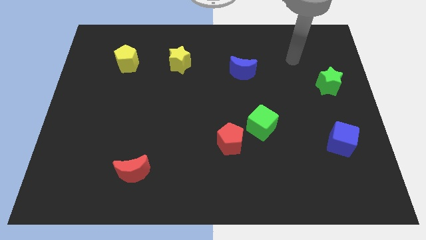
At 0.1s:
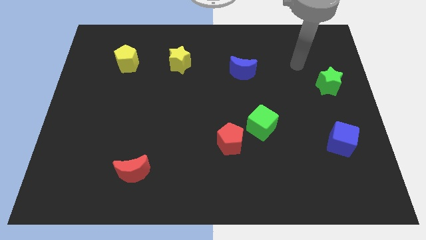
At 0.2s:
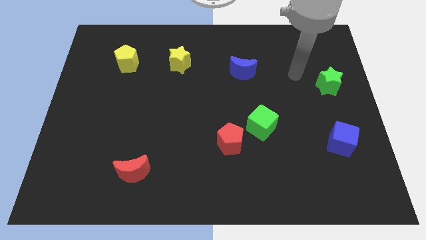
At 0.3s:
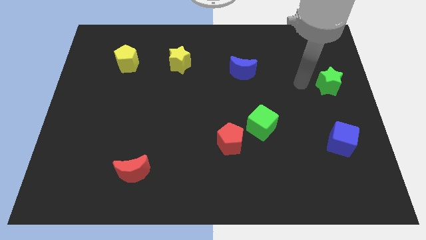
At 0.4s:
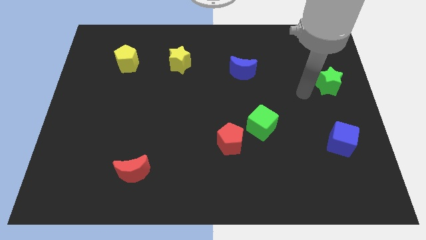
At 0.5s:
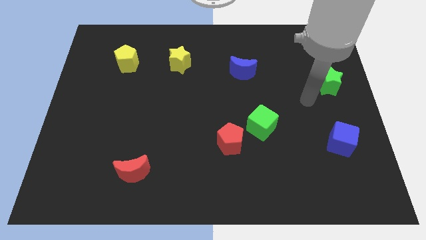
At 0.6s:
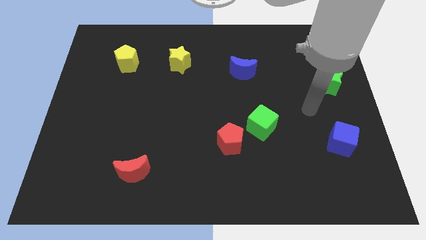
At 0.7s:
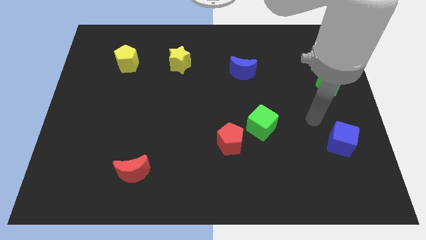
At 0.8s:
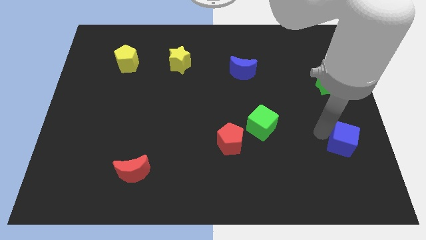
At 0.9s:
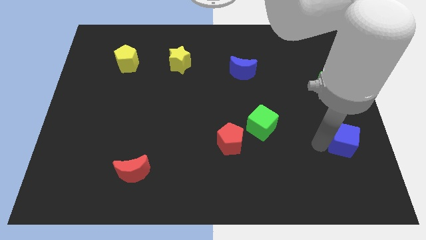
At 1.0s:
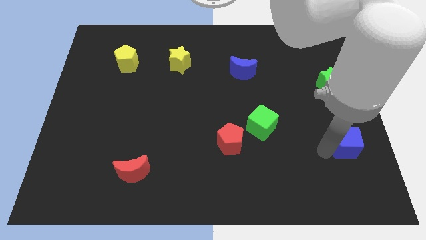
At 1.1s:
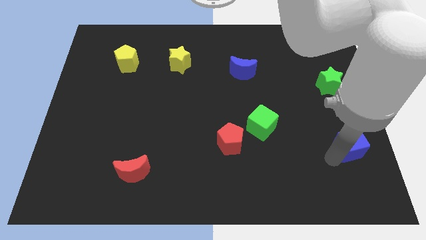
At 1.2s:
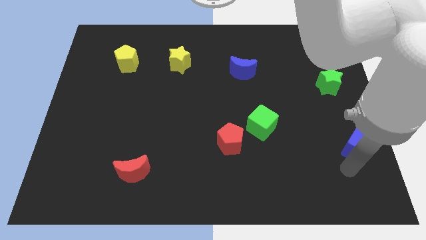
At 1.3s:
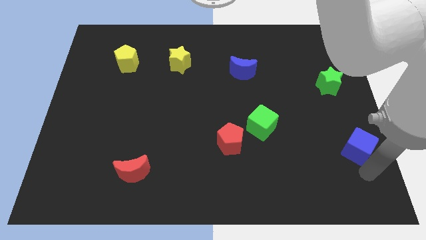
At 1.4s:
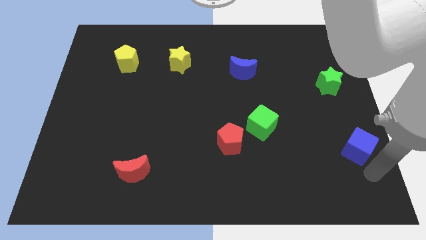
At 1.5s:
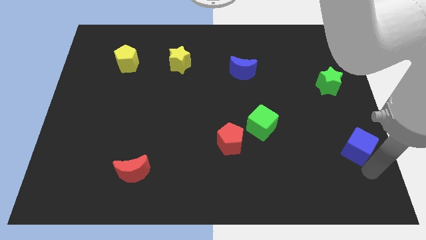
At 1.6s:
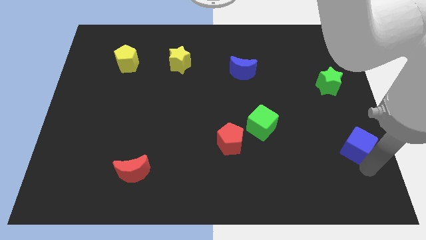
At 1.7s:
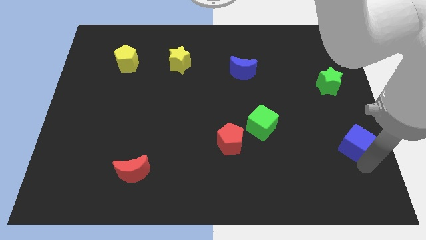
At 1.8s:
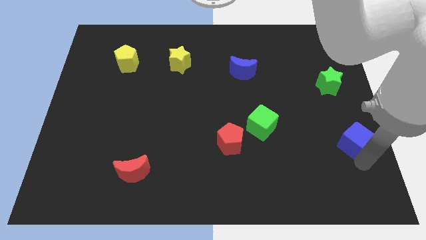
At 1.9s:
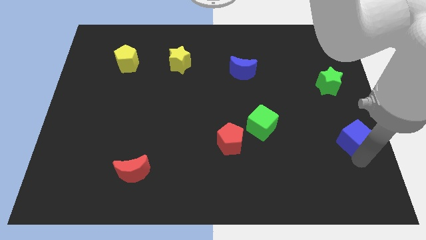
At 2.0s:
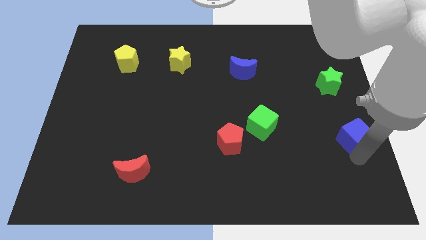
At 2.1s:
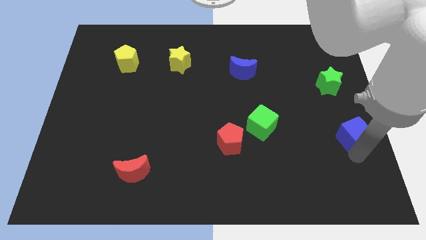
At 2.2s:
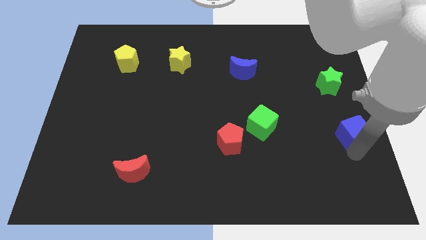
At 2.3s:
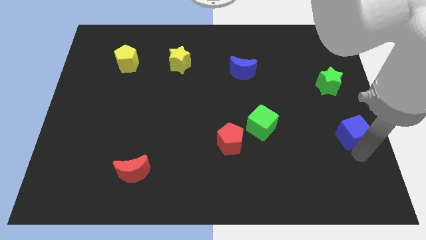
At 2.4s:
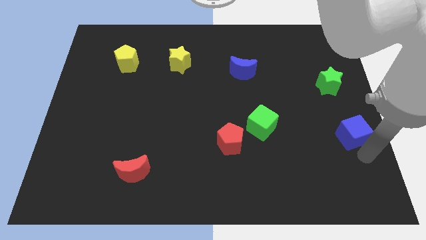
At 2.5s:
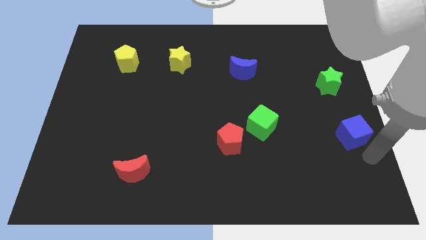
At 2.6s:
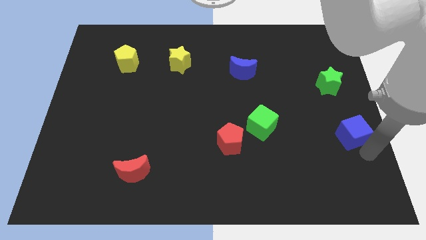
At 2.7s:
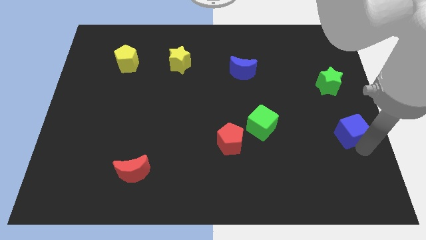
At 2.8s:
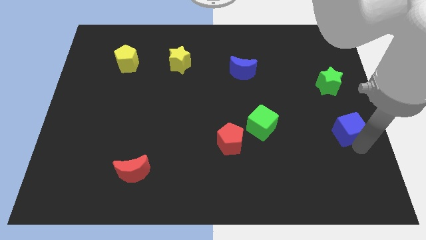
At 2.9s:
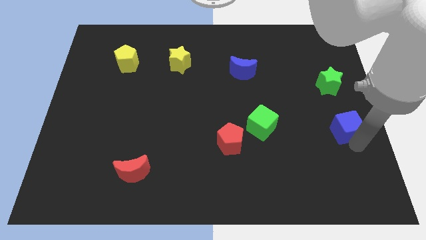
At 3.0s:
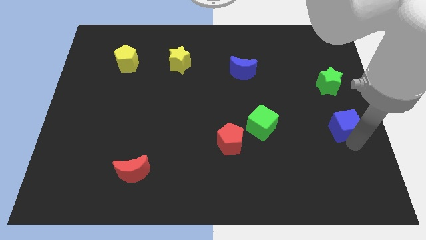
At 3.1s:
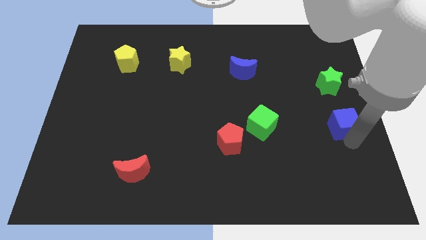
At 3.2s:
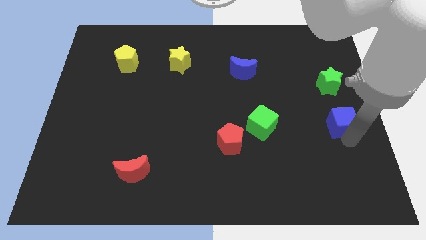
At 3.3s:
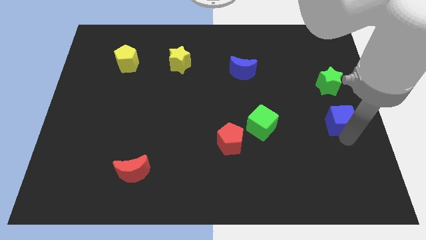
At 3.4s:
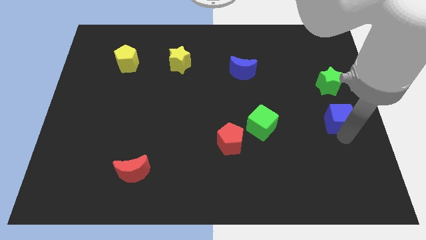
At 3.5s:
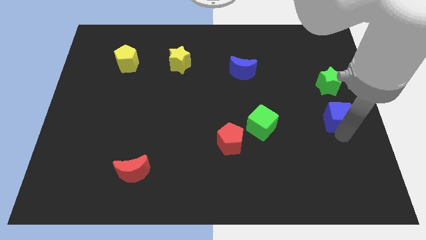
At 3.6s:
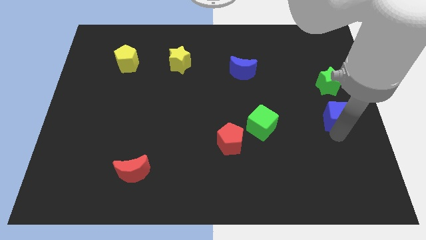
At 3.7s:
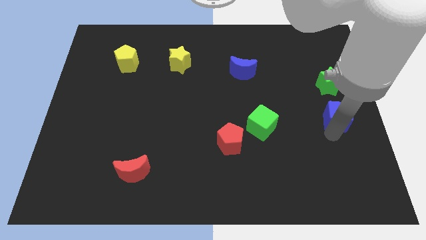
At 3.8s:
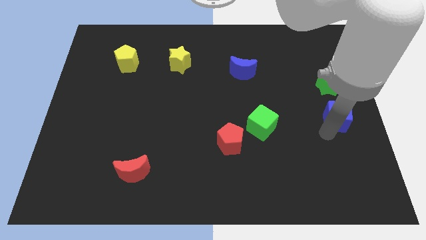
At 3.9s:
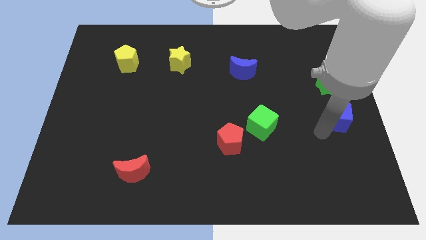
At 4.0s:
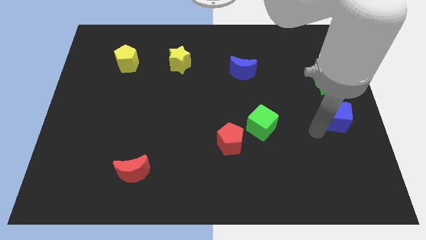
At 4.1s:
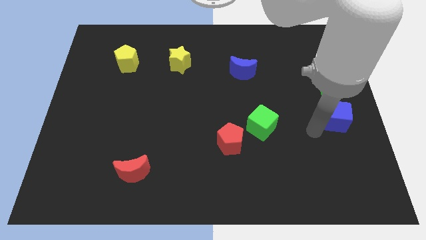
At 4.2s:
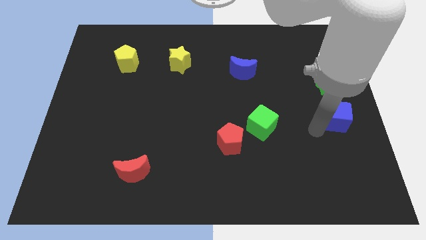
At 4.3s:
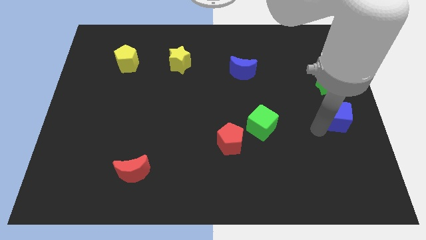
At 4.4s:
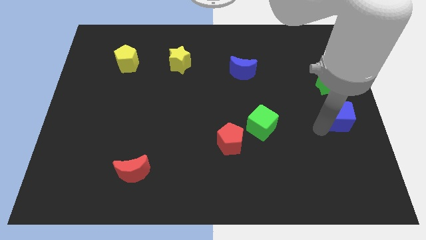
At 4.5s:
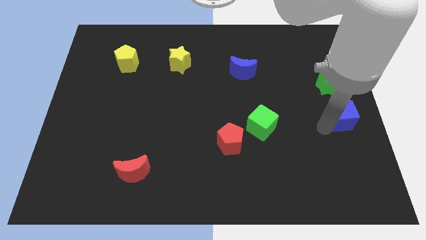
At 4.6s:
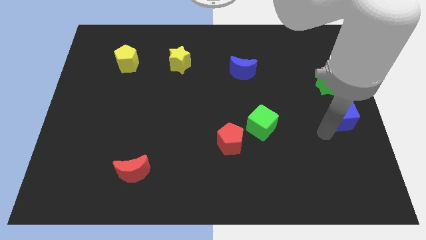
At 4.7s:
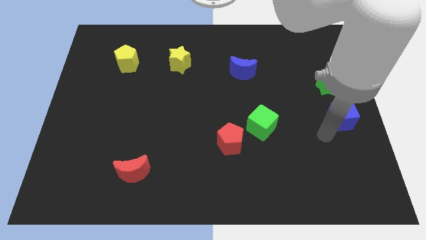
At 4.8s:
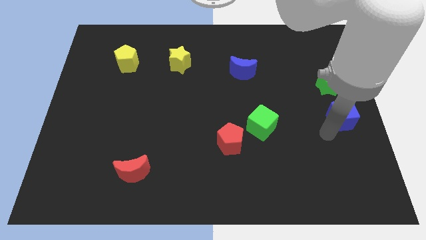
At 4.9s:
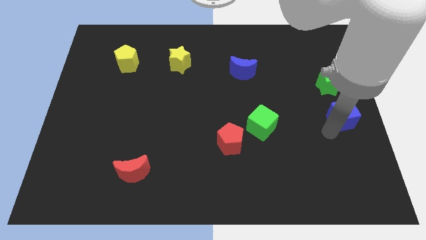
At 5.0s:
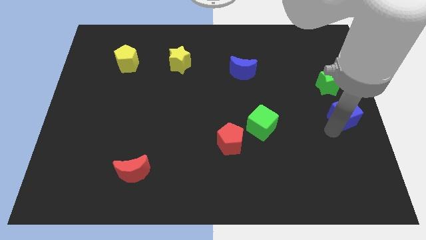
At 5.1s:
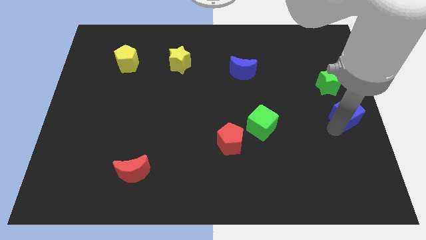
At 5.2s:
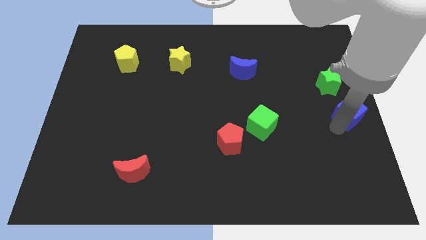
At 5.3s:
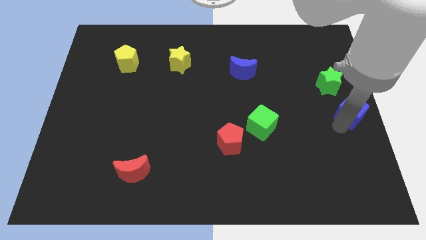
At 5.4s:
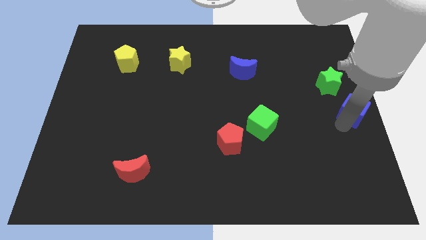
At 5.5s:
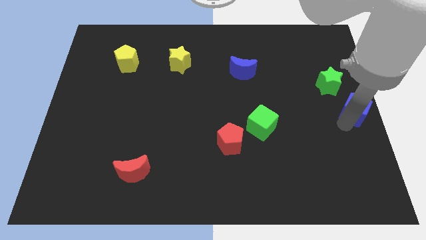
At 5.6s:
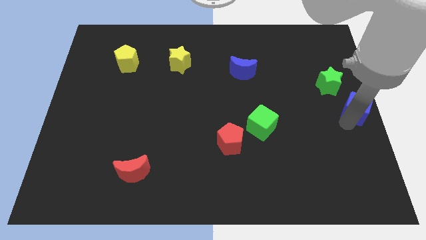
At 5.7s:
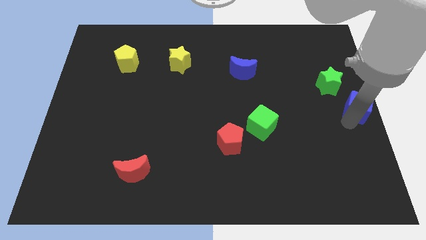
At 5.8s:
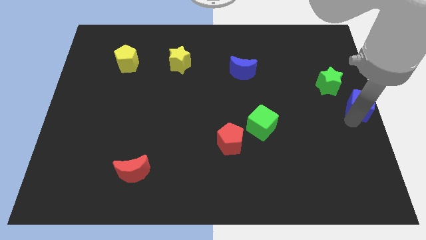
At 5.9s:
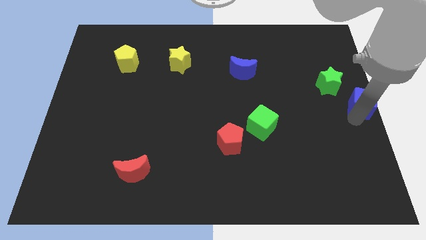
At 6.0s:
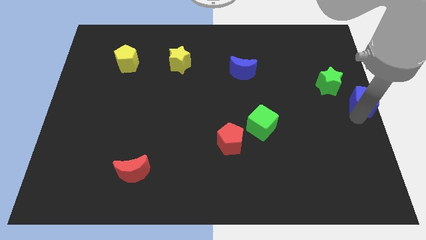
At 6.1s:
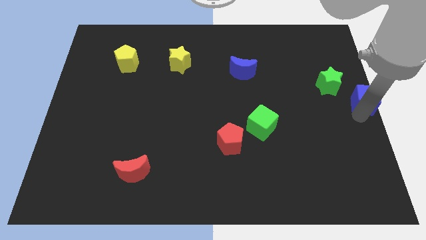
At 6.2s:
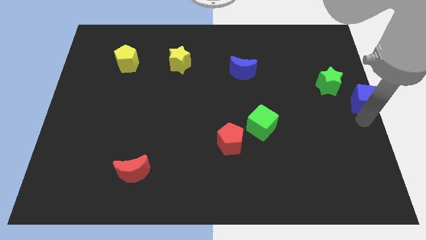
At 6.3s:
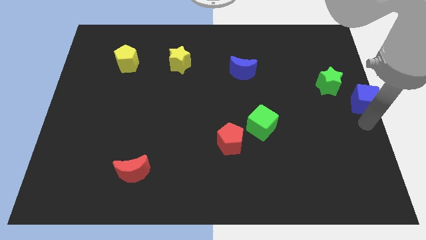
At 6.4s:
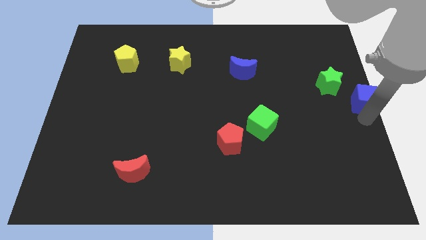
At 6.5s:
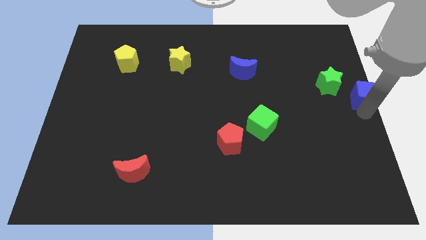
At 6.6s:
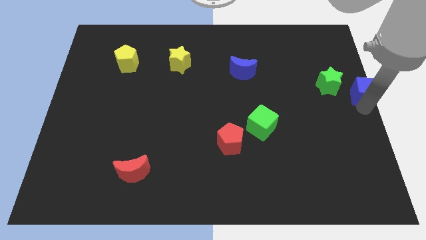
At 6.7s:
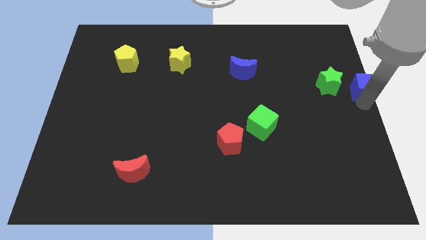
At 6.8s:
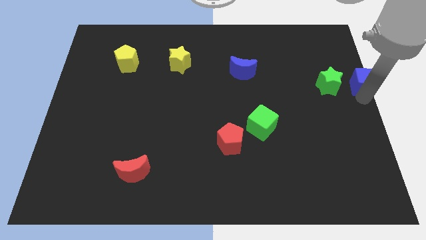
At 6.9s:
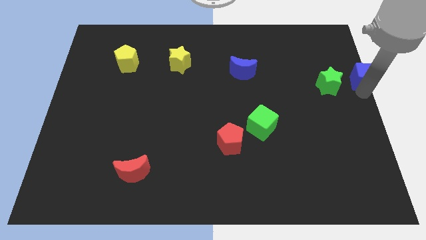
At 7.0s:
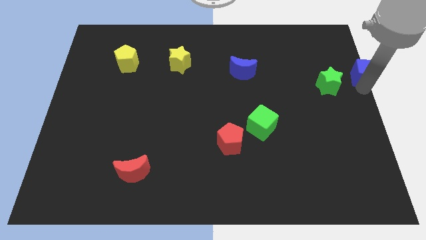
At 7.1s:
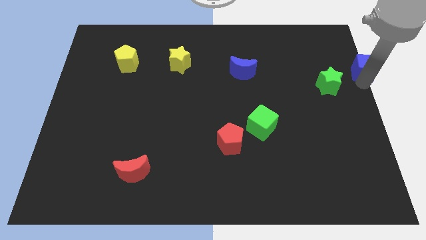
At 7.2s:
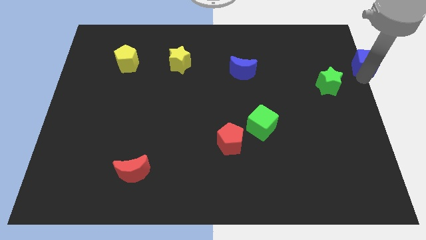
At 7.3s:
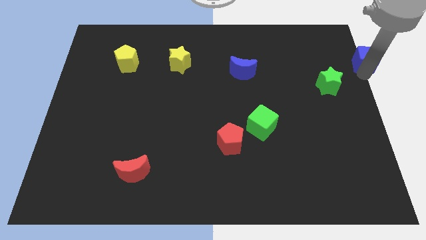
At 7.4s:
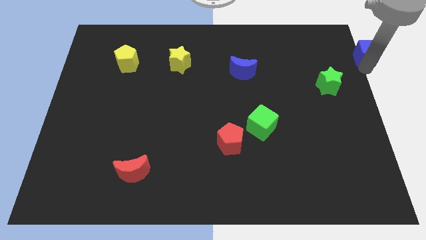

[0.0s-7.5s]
put the blue cube to the top right of the board
